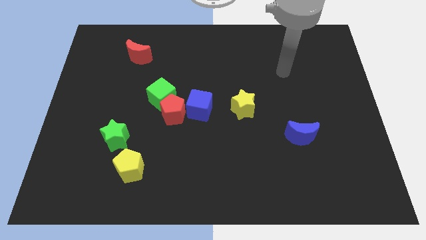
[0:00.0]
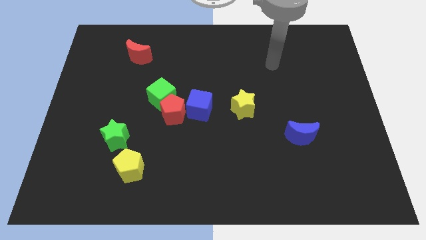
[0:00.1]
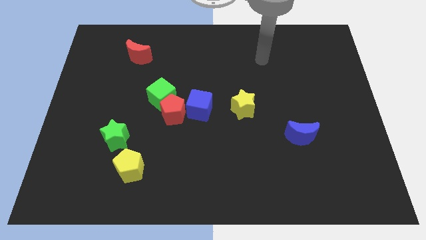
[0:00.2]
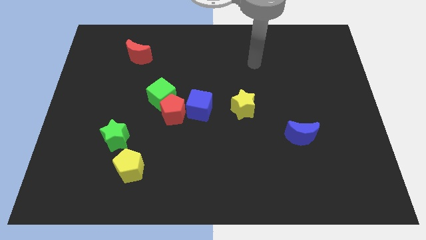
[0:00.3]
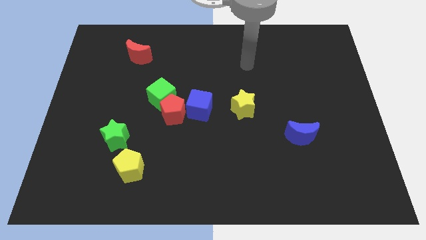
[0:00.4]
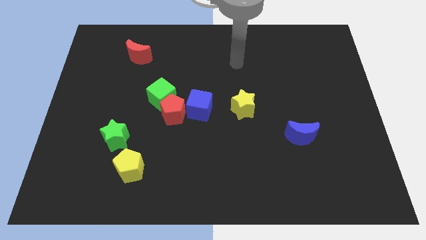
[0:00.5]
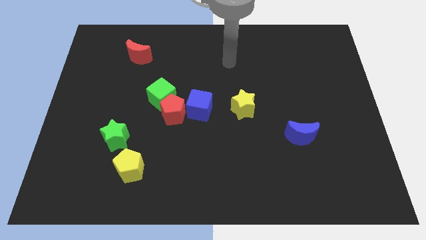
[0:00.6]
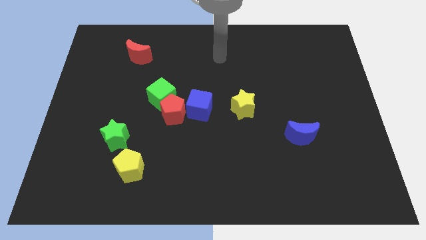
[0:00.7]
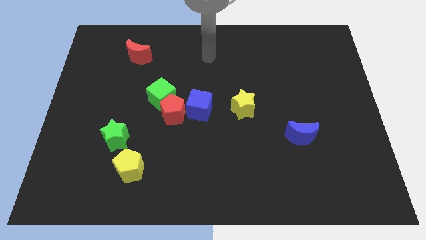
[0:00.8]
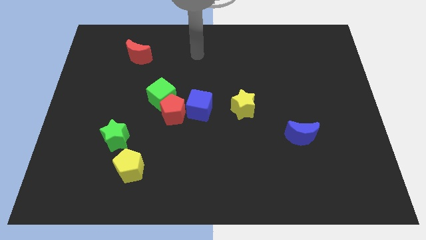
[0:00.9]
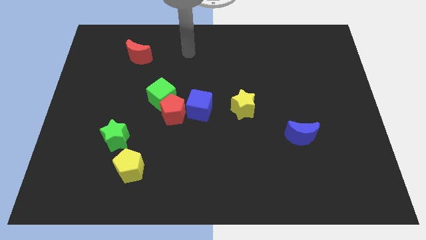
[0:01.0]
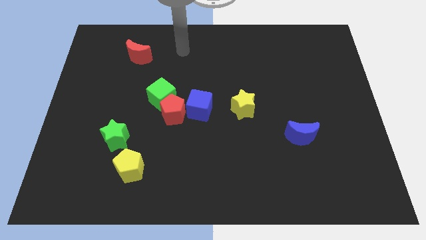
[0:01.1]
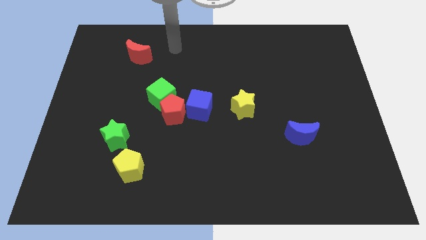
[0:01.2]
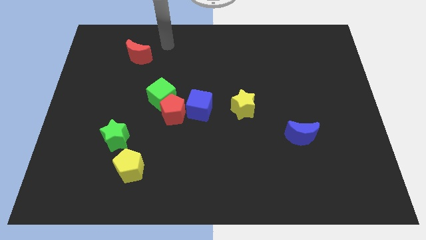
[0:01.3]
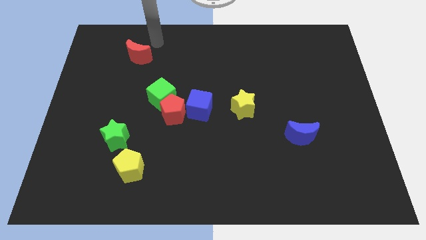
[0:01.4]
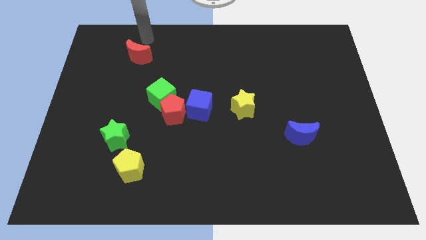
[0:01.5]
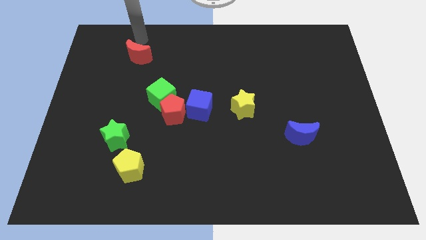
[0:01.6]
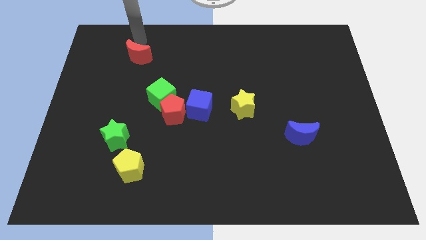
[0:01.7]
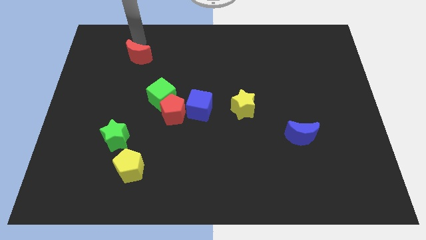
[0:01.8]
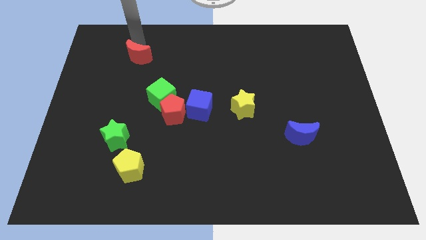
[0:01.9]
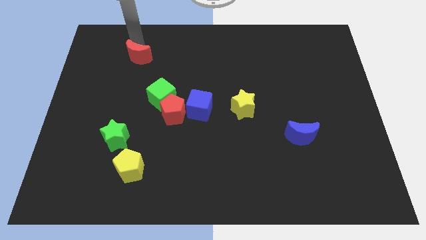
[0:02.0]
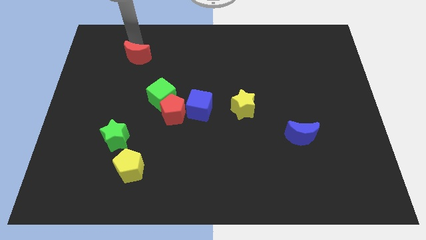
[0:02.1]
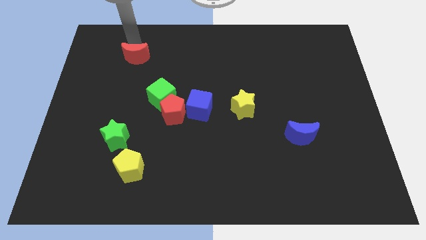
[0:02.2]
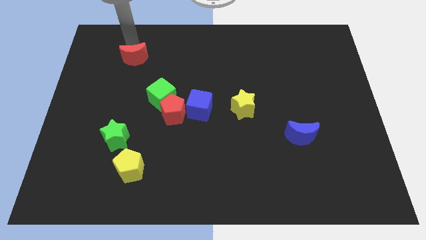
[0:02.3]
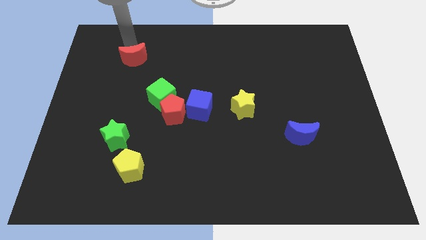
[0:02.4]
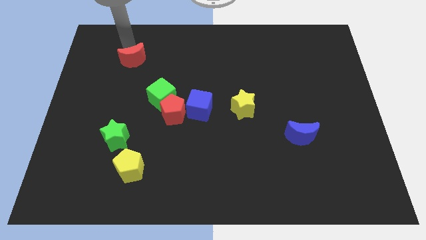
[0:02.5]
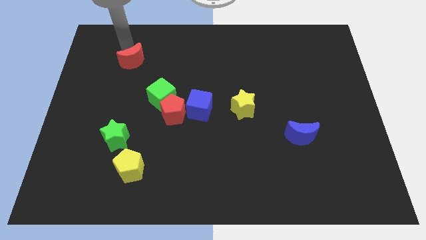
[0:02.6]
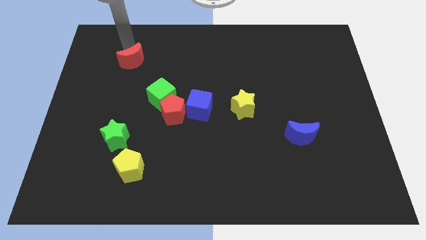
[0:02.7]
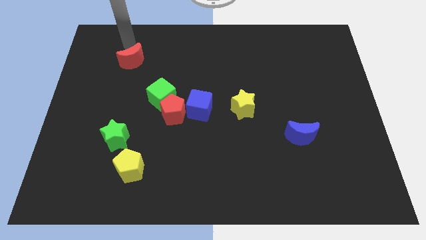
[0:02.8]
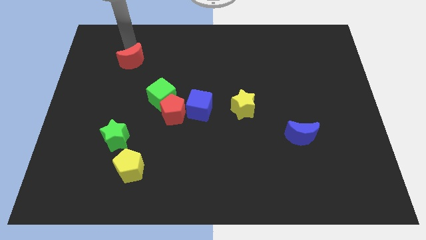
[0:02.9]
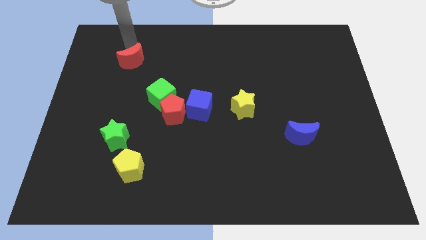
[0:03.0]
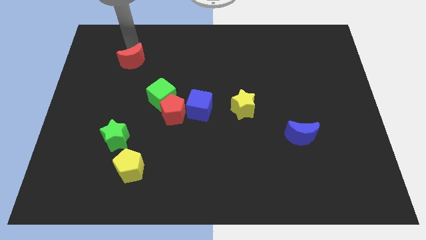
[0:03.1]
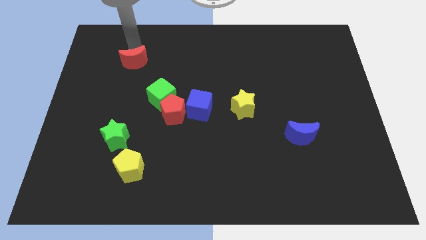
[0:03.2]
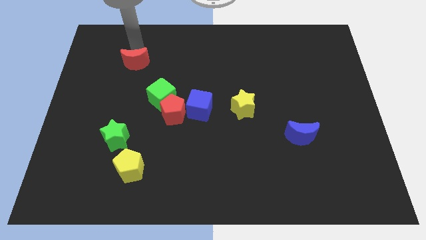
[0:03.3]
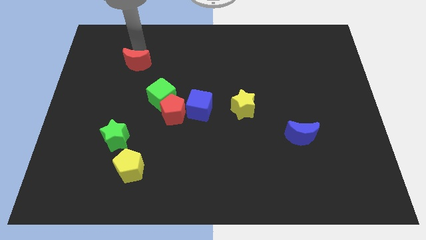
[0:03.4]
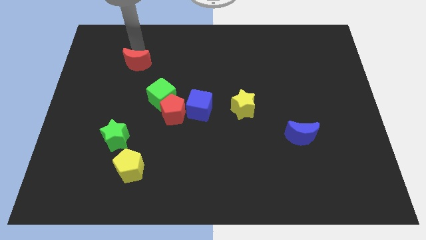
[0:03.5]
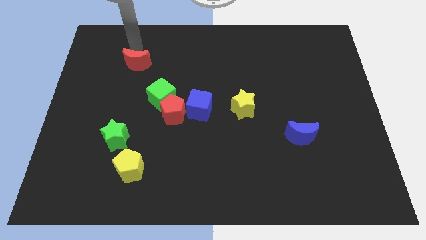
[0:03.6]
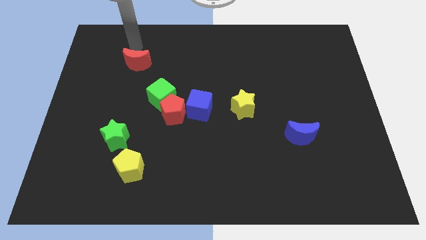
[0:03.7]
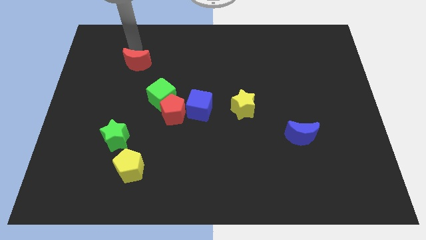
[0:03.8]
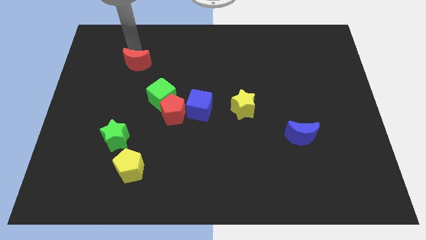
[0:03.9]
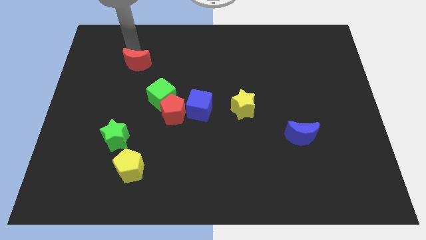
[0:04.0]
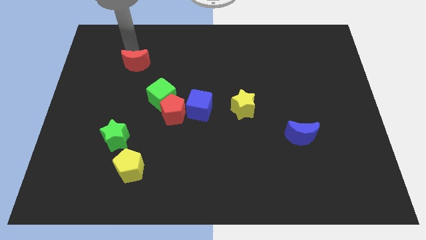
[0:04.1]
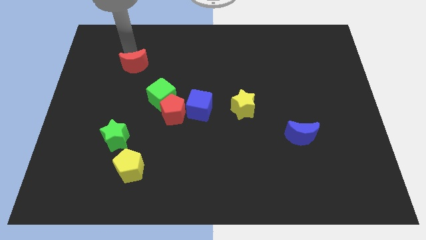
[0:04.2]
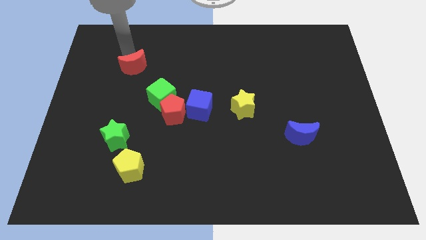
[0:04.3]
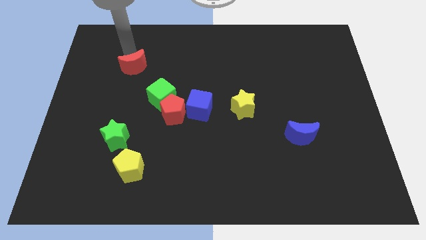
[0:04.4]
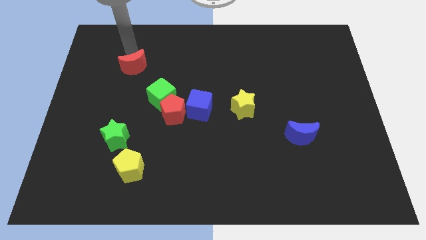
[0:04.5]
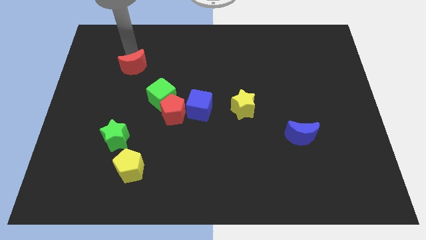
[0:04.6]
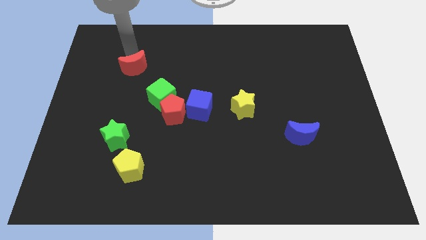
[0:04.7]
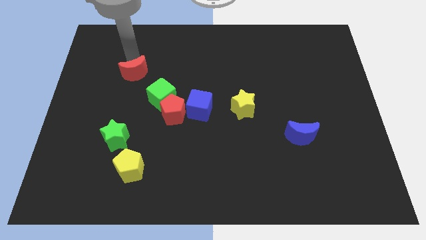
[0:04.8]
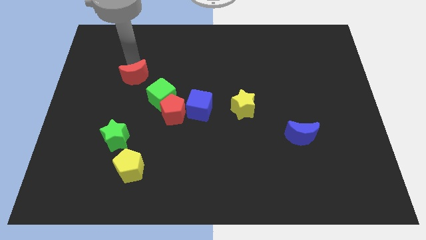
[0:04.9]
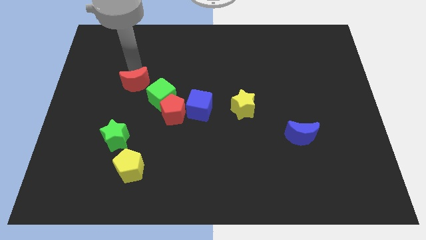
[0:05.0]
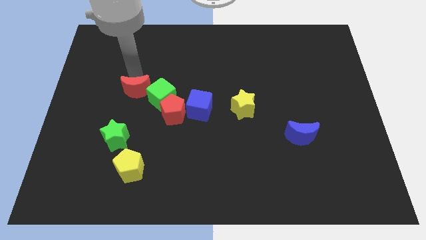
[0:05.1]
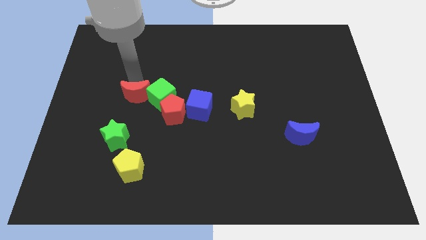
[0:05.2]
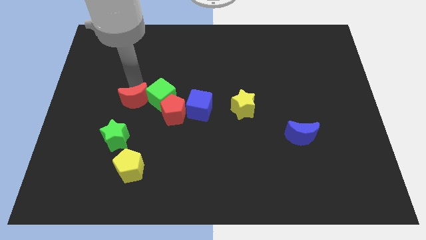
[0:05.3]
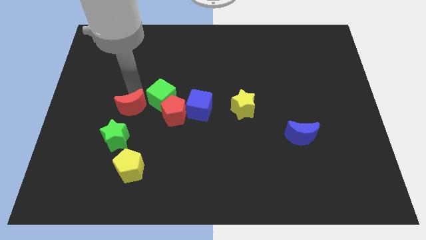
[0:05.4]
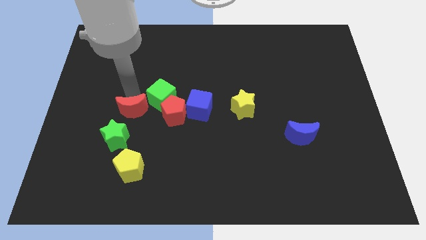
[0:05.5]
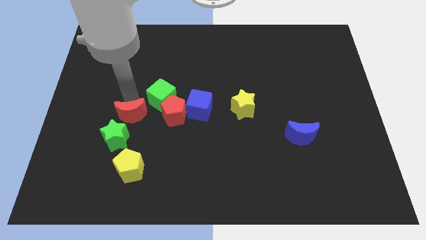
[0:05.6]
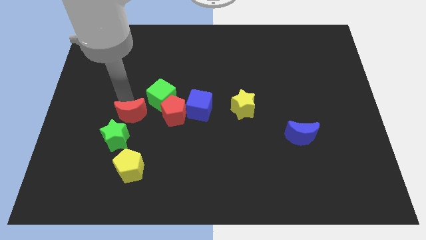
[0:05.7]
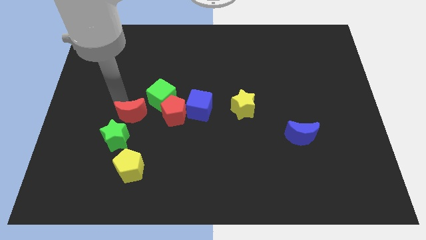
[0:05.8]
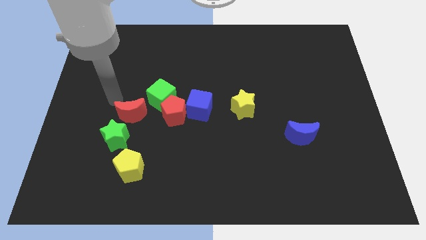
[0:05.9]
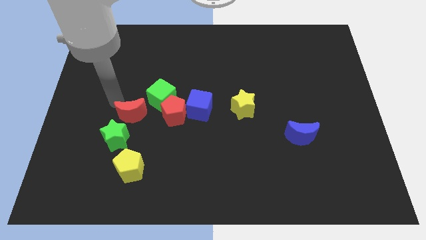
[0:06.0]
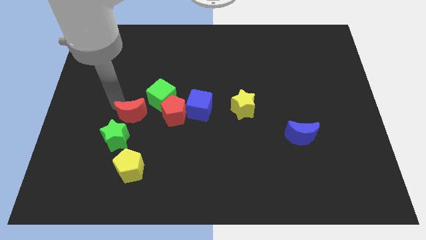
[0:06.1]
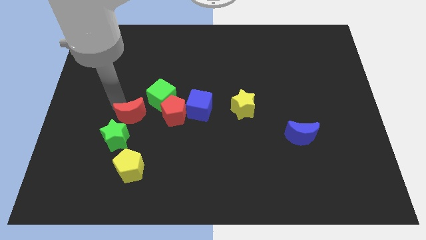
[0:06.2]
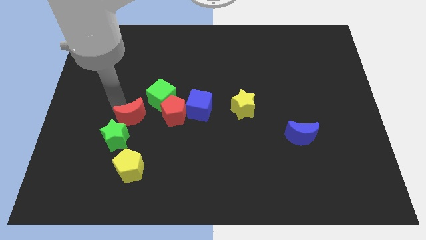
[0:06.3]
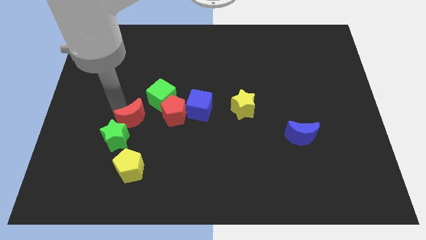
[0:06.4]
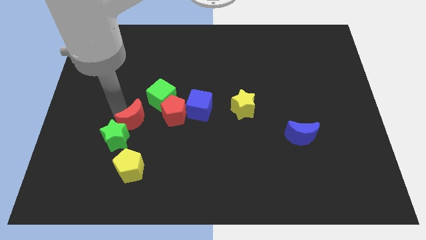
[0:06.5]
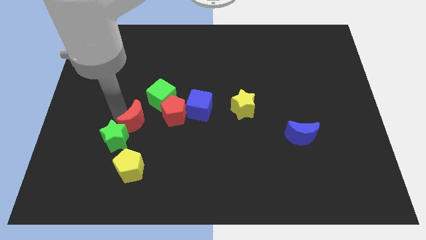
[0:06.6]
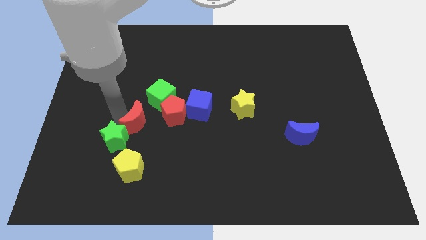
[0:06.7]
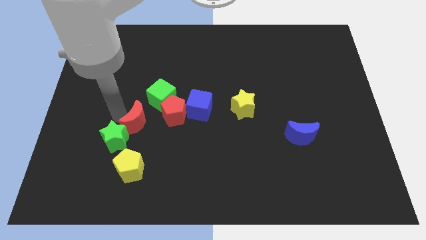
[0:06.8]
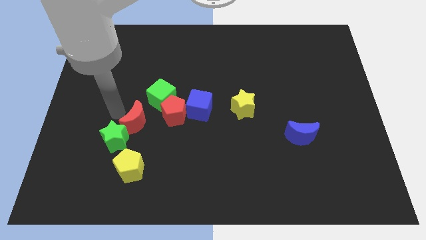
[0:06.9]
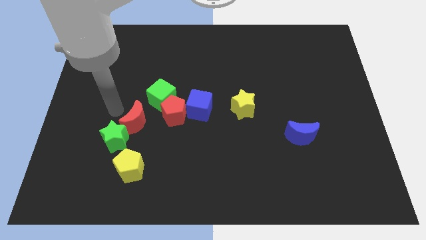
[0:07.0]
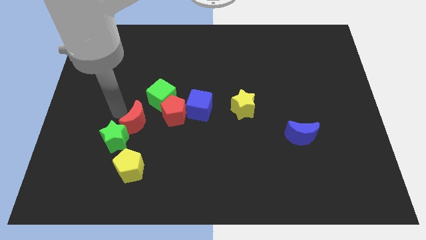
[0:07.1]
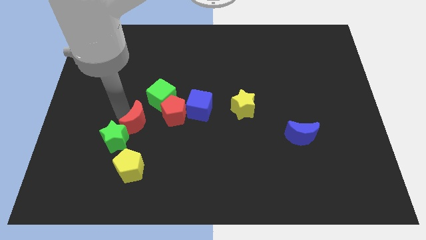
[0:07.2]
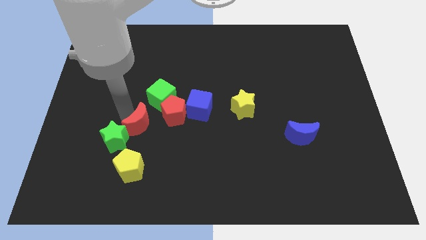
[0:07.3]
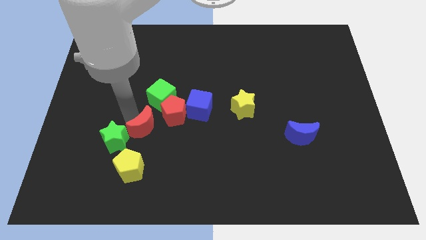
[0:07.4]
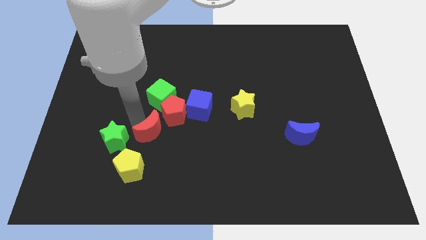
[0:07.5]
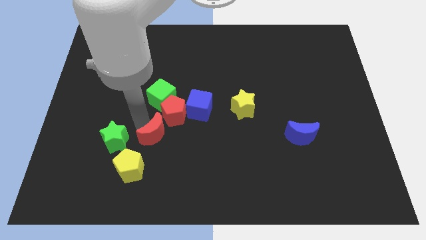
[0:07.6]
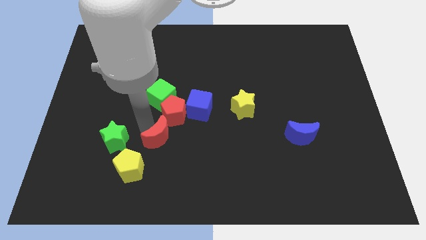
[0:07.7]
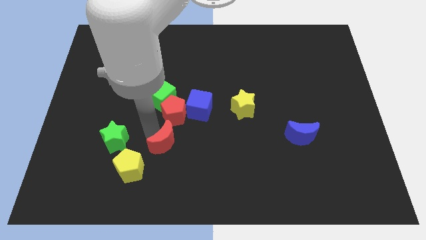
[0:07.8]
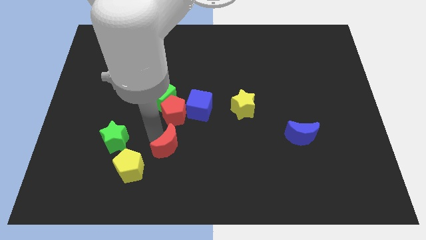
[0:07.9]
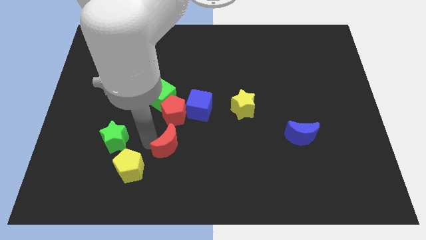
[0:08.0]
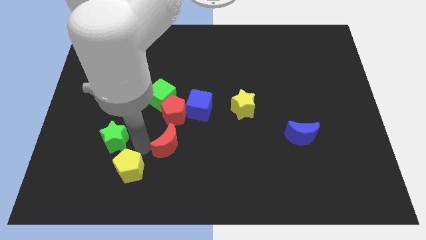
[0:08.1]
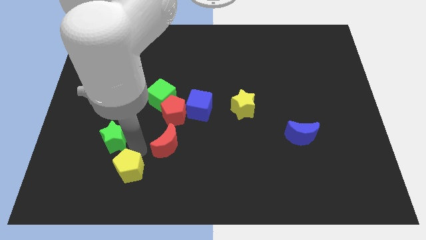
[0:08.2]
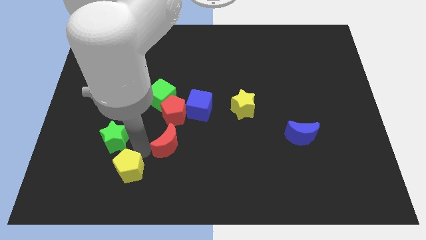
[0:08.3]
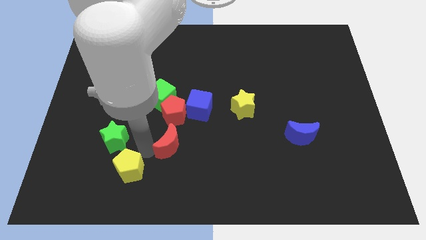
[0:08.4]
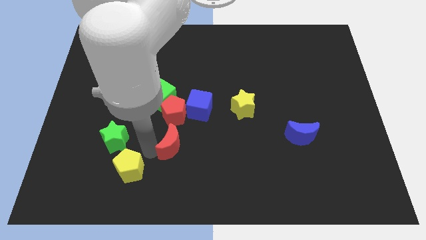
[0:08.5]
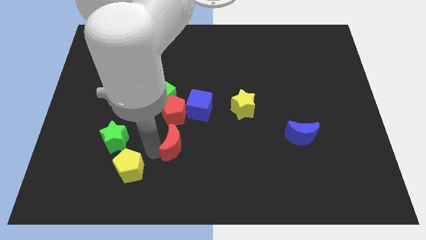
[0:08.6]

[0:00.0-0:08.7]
slide the red moon down and to the right
